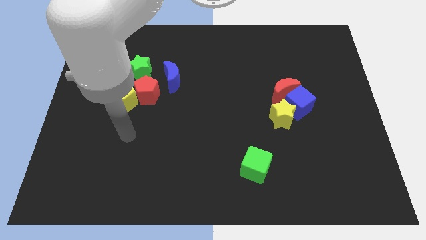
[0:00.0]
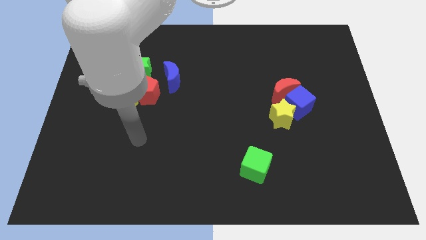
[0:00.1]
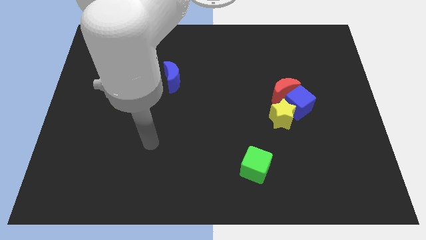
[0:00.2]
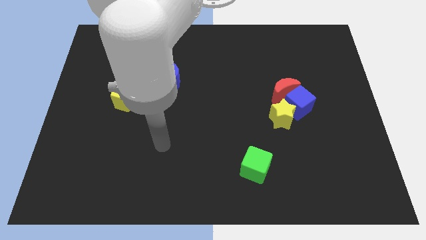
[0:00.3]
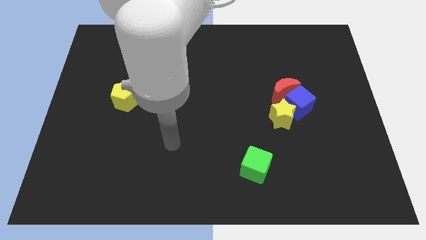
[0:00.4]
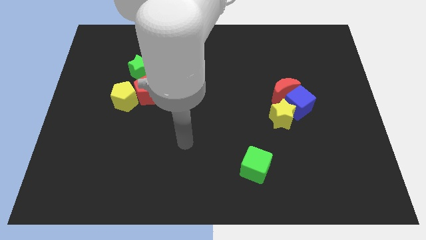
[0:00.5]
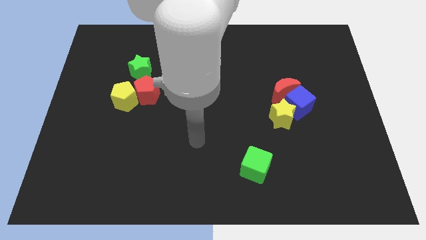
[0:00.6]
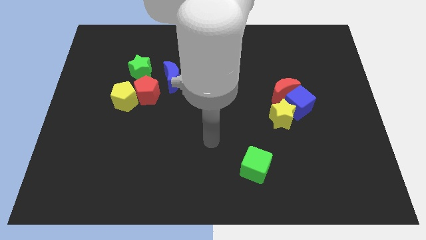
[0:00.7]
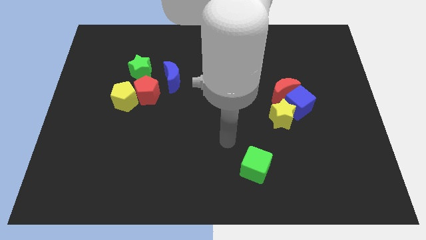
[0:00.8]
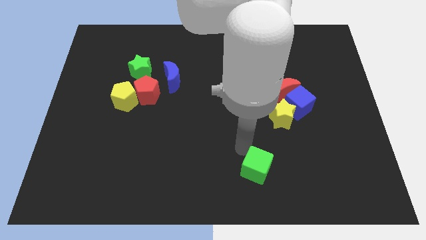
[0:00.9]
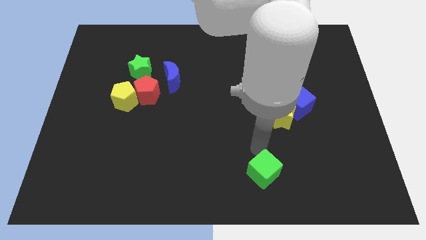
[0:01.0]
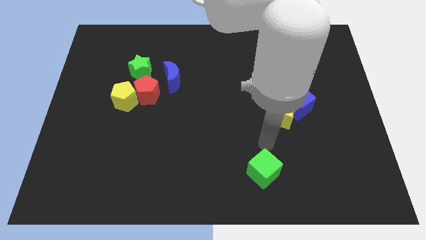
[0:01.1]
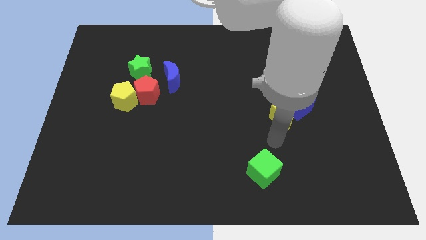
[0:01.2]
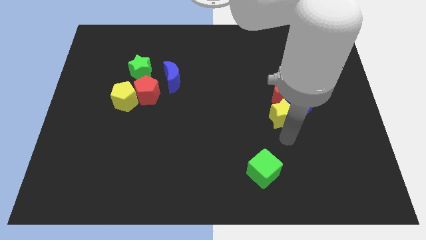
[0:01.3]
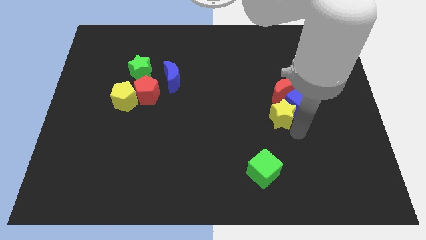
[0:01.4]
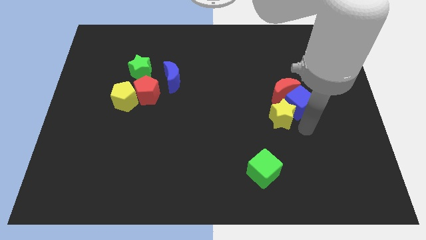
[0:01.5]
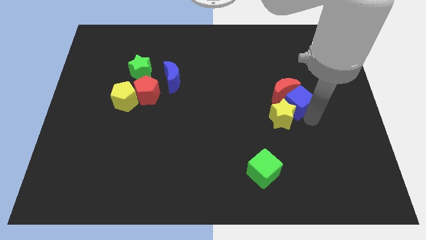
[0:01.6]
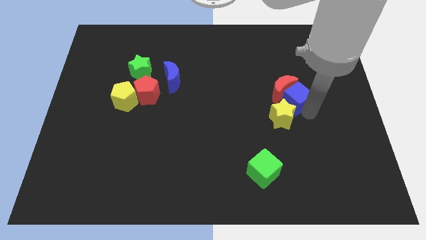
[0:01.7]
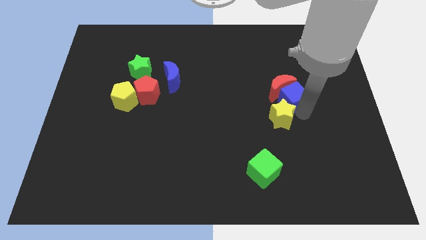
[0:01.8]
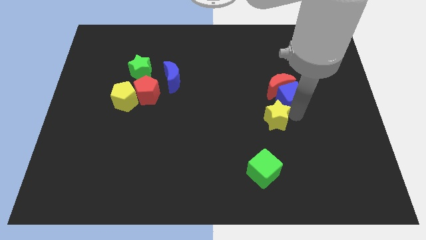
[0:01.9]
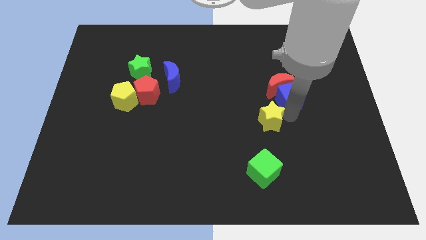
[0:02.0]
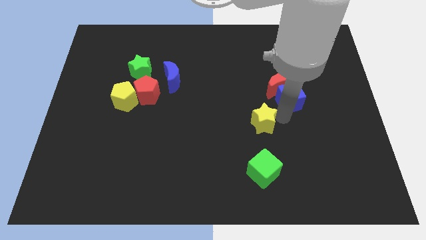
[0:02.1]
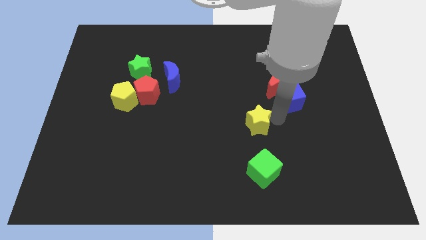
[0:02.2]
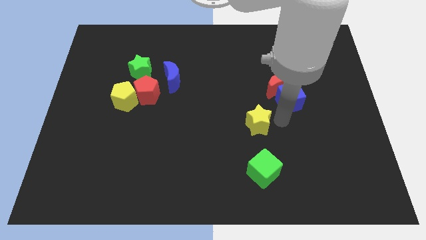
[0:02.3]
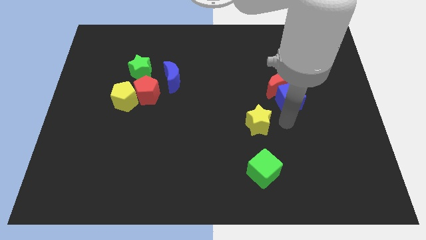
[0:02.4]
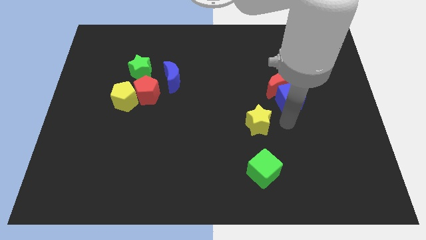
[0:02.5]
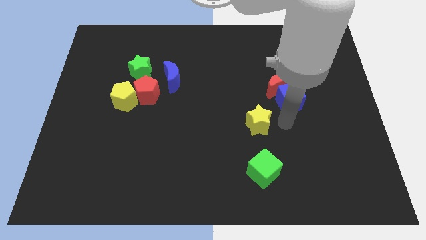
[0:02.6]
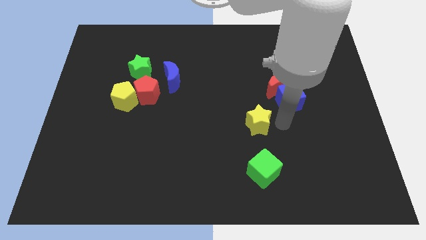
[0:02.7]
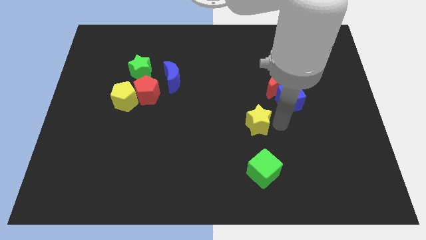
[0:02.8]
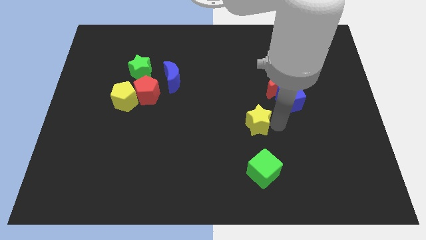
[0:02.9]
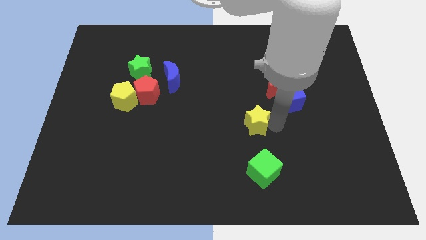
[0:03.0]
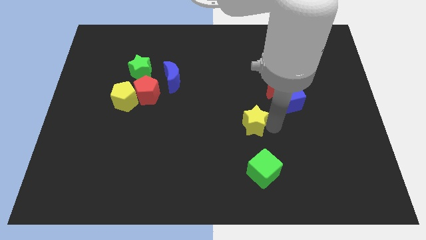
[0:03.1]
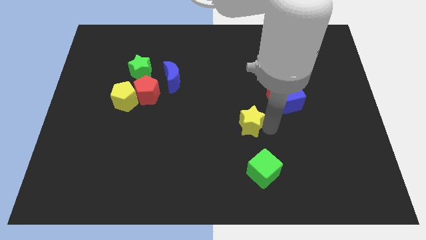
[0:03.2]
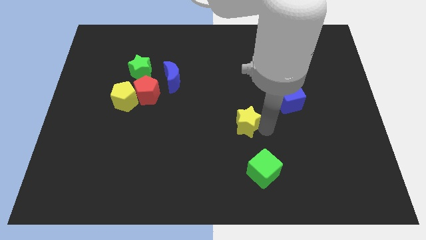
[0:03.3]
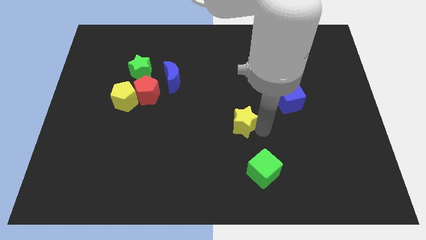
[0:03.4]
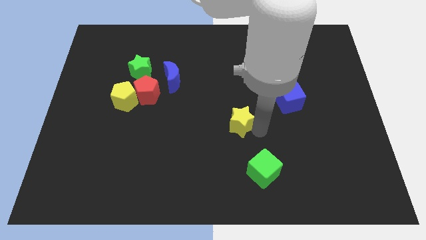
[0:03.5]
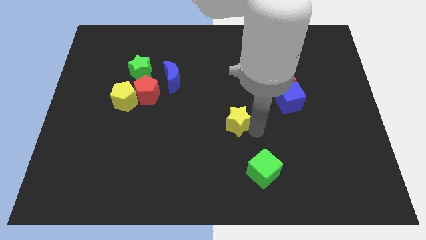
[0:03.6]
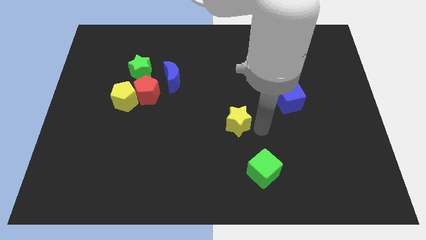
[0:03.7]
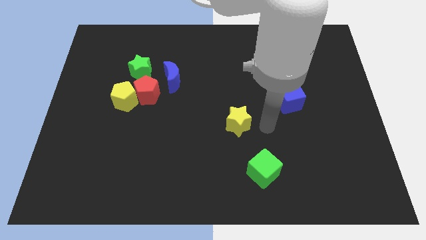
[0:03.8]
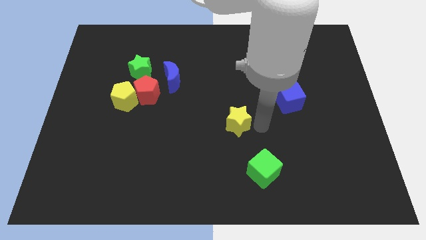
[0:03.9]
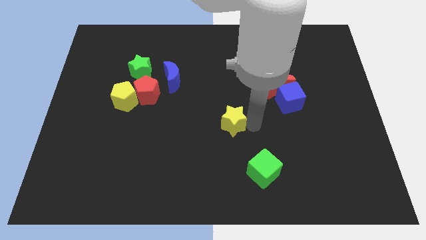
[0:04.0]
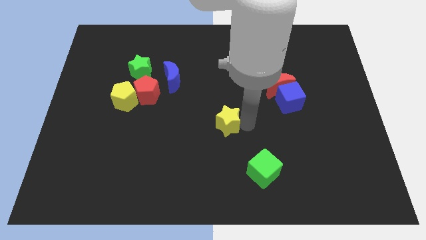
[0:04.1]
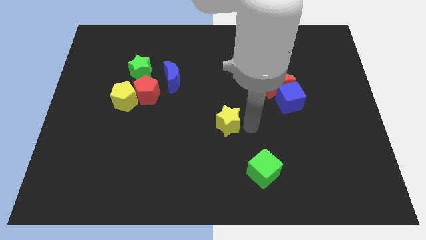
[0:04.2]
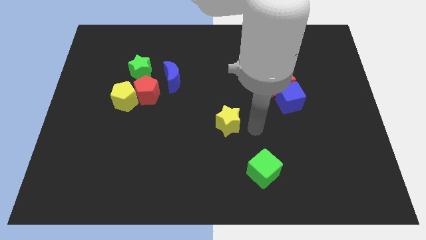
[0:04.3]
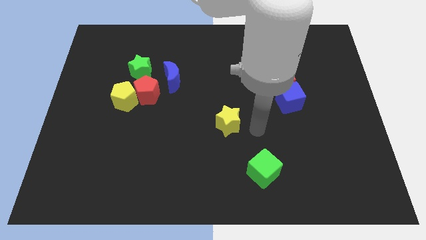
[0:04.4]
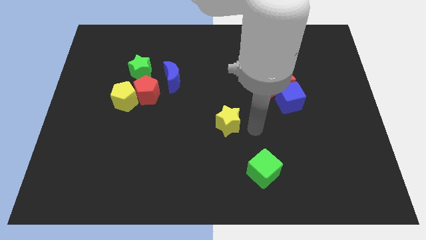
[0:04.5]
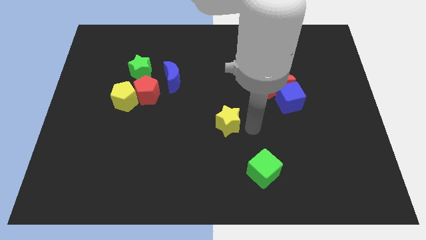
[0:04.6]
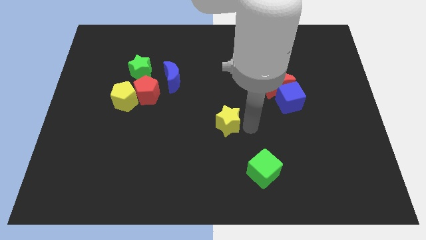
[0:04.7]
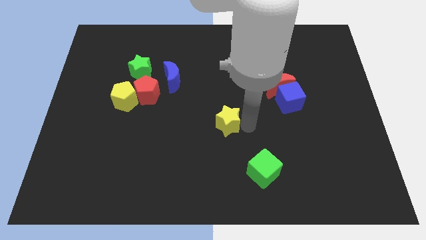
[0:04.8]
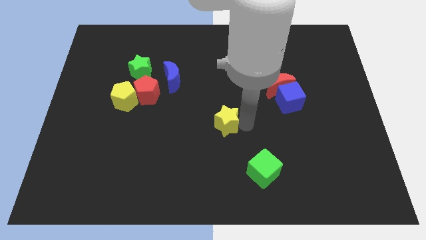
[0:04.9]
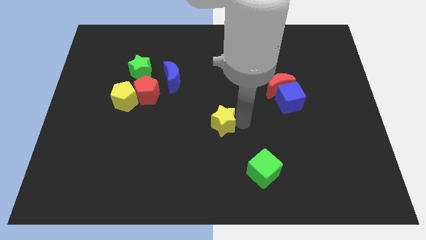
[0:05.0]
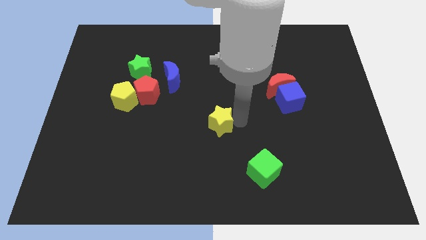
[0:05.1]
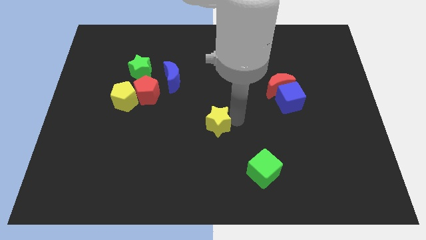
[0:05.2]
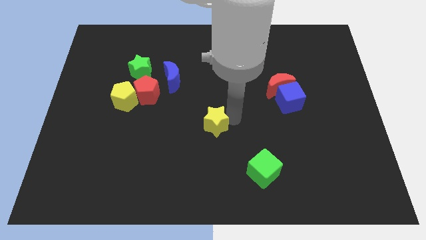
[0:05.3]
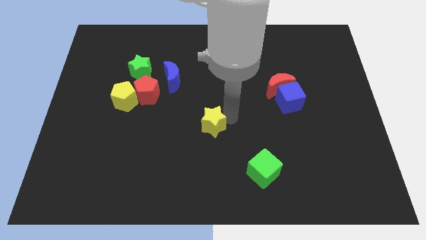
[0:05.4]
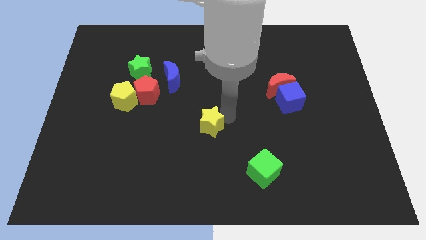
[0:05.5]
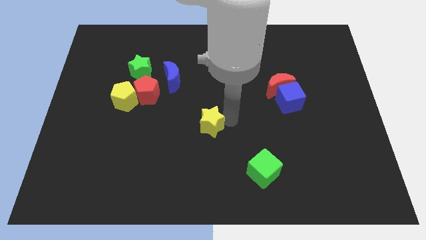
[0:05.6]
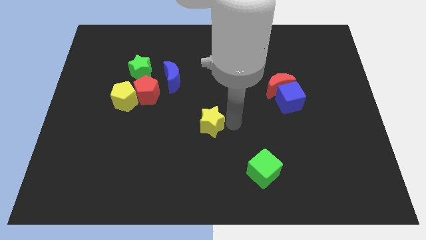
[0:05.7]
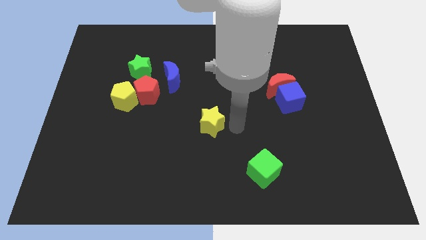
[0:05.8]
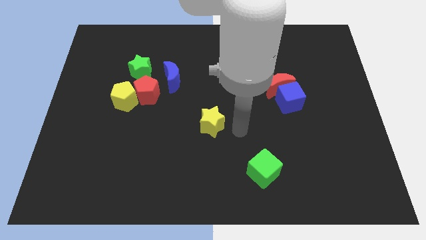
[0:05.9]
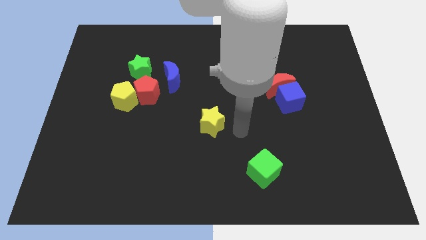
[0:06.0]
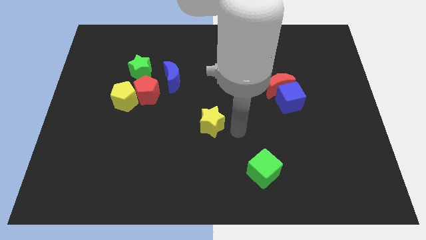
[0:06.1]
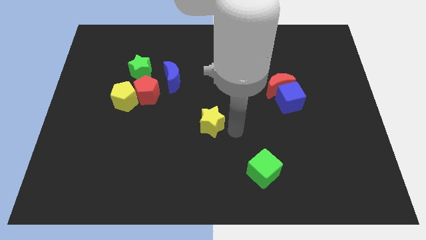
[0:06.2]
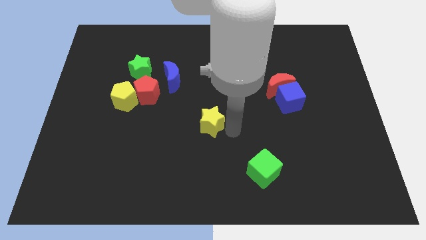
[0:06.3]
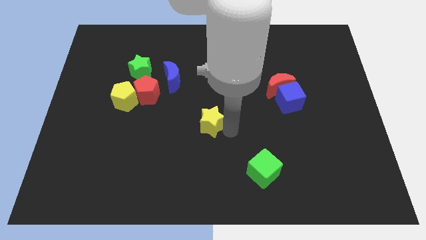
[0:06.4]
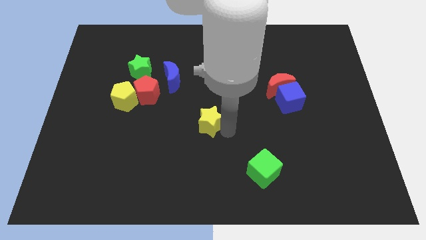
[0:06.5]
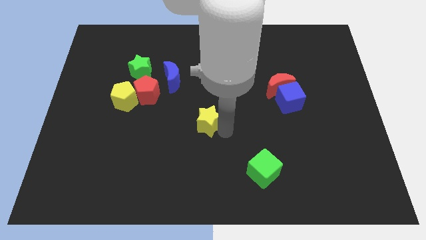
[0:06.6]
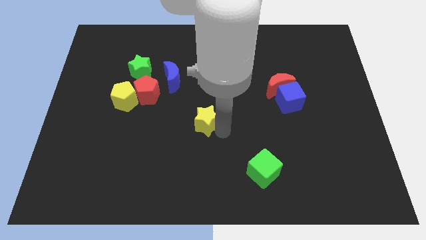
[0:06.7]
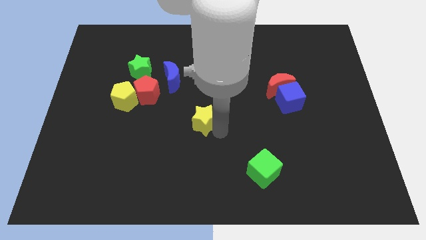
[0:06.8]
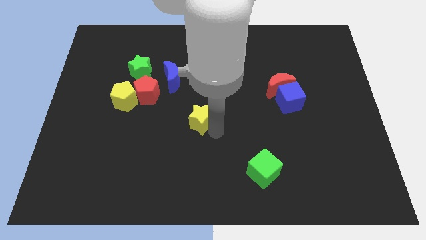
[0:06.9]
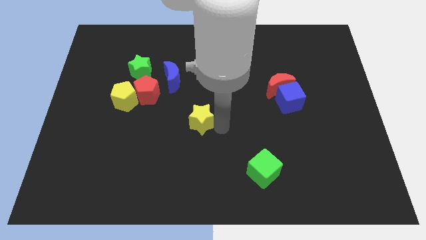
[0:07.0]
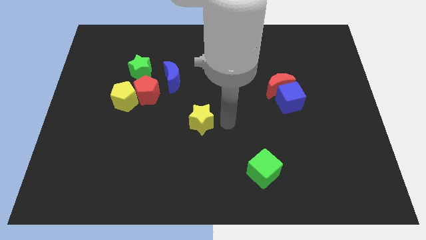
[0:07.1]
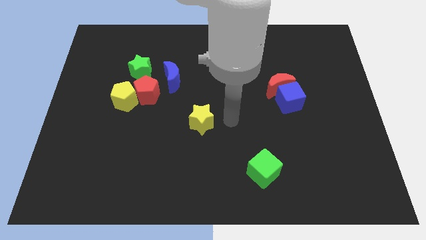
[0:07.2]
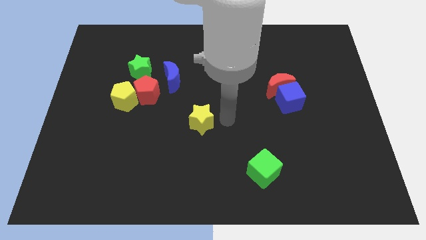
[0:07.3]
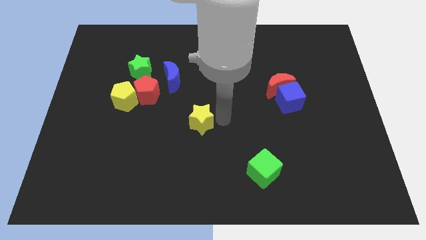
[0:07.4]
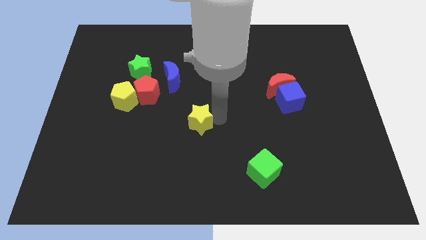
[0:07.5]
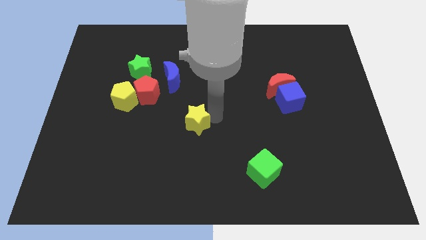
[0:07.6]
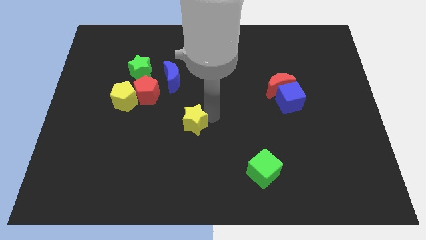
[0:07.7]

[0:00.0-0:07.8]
slide the yellow star left
